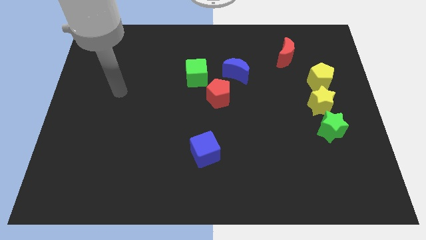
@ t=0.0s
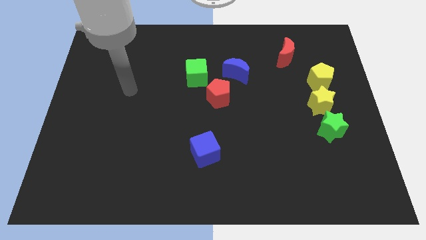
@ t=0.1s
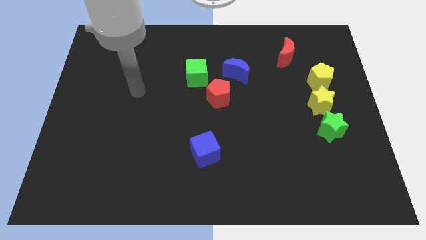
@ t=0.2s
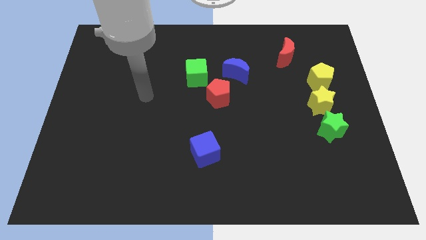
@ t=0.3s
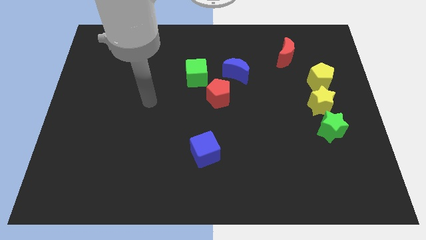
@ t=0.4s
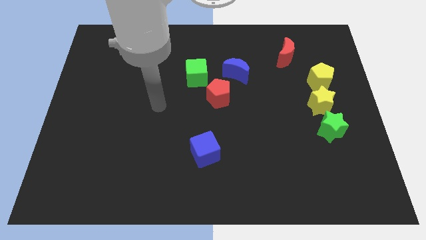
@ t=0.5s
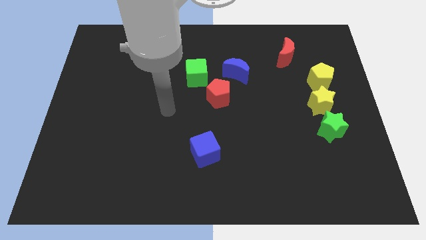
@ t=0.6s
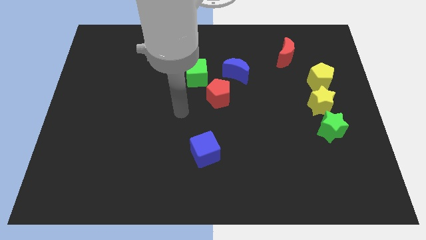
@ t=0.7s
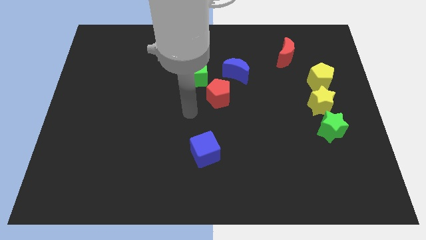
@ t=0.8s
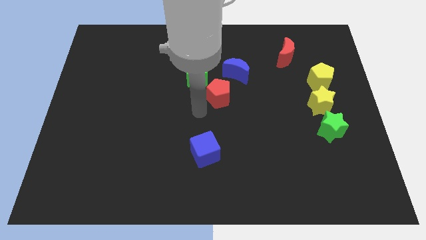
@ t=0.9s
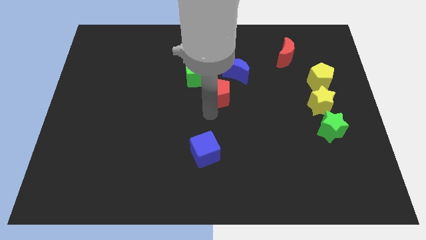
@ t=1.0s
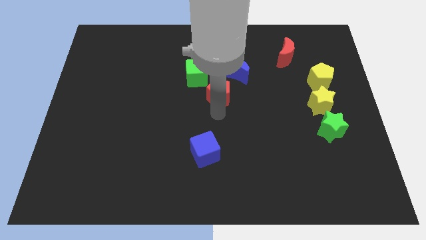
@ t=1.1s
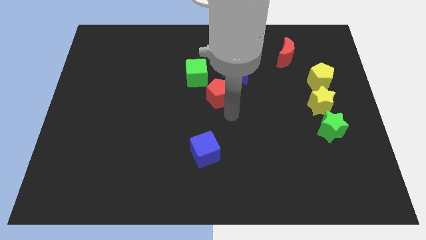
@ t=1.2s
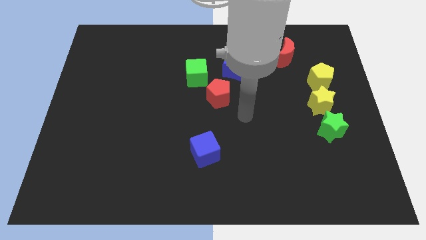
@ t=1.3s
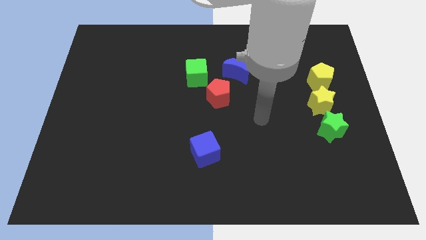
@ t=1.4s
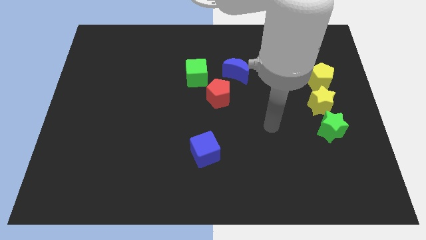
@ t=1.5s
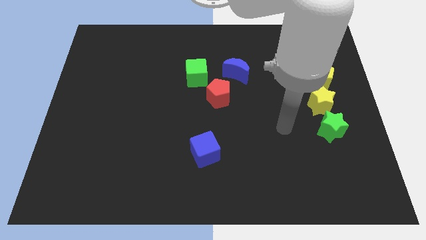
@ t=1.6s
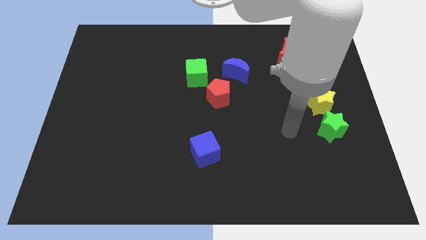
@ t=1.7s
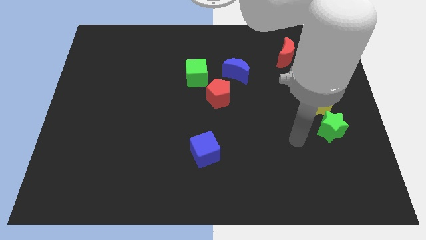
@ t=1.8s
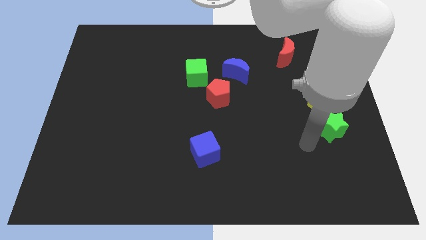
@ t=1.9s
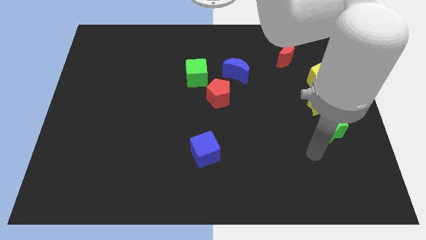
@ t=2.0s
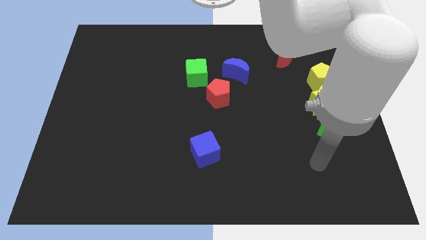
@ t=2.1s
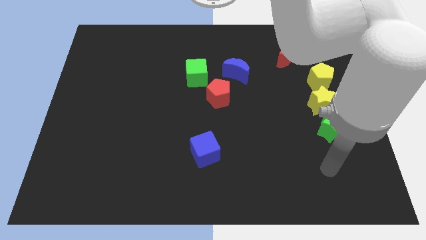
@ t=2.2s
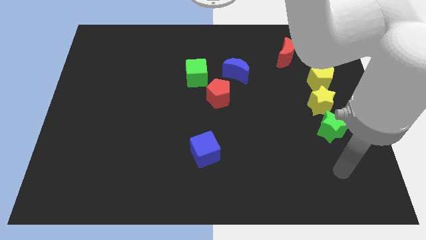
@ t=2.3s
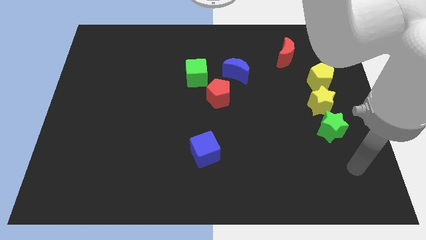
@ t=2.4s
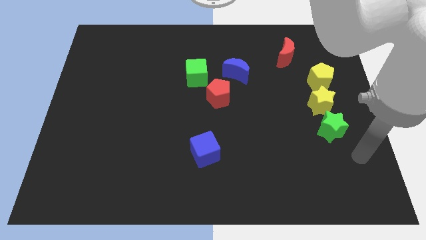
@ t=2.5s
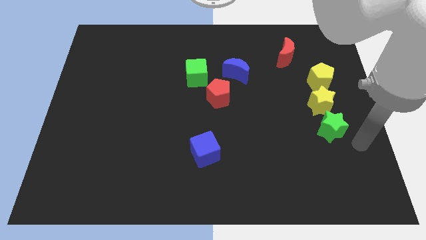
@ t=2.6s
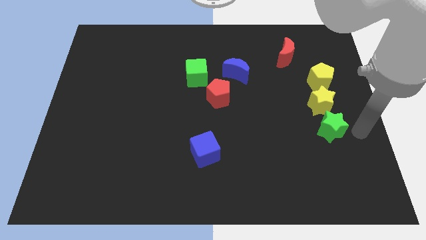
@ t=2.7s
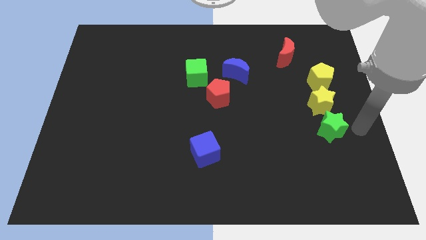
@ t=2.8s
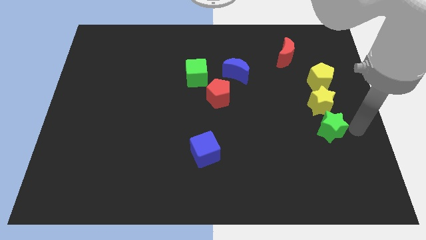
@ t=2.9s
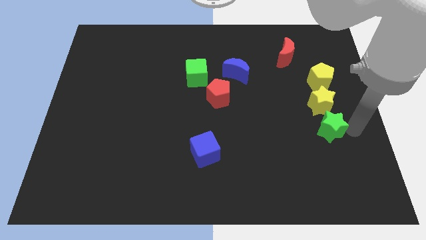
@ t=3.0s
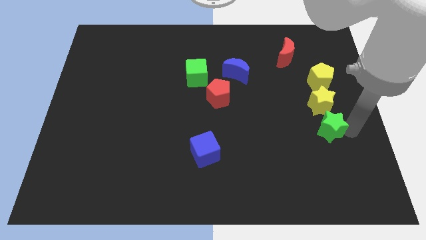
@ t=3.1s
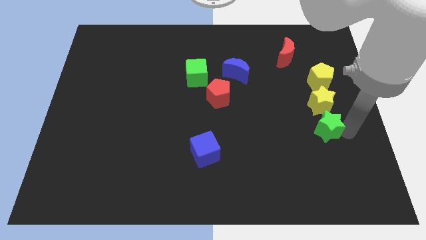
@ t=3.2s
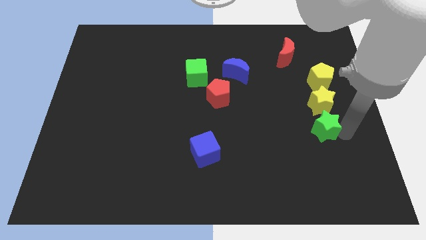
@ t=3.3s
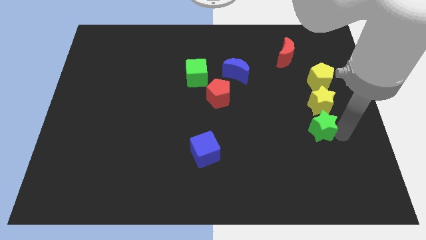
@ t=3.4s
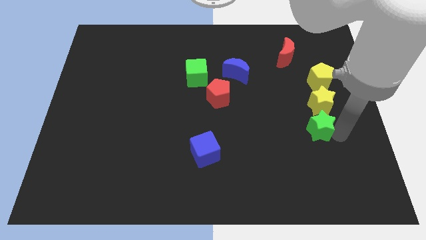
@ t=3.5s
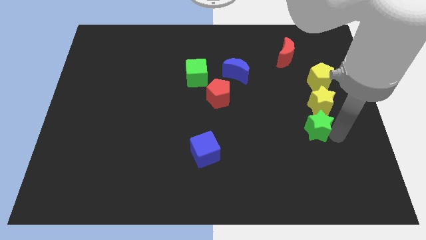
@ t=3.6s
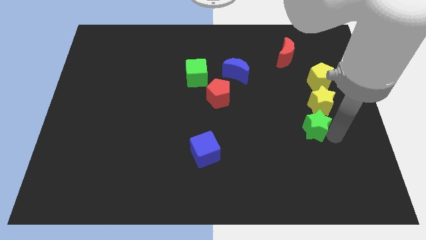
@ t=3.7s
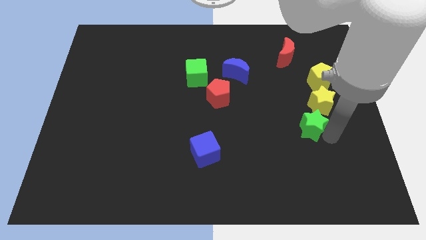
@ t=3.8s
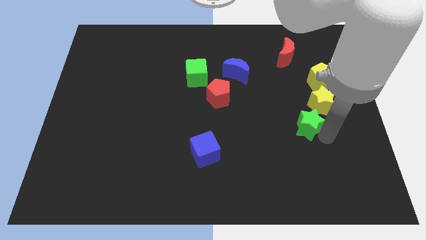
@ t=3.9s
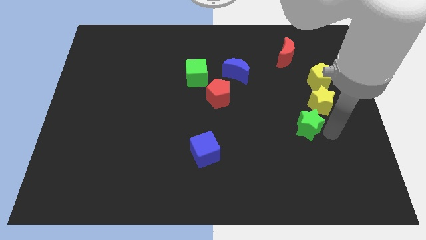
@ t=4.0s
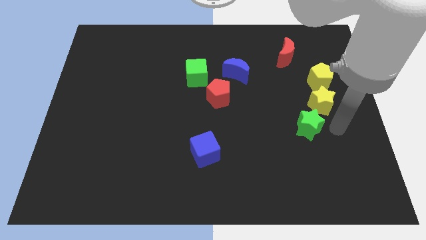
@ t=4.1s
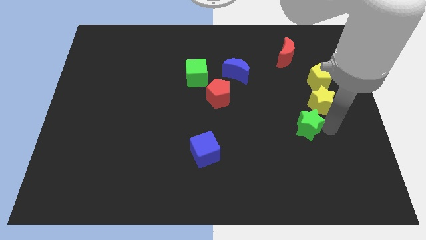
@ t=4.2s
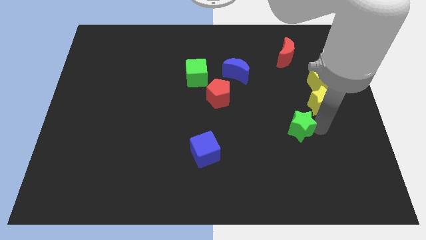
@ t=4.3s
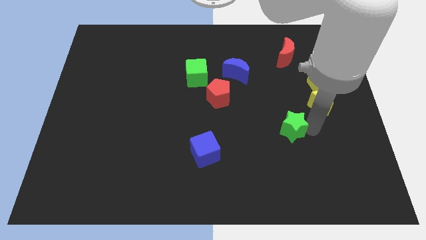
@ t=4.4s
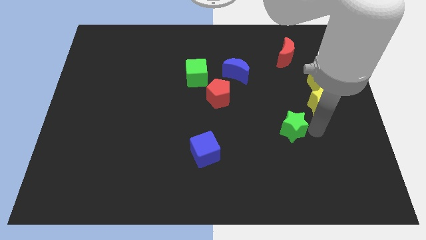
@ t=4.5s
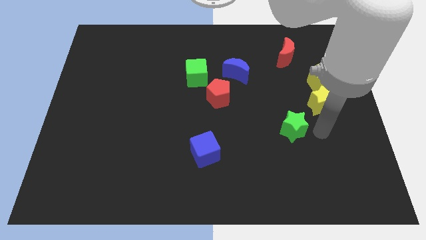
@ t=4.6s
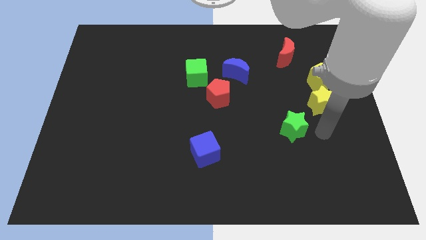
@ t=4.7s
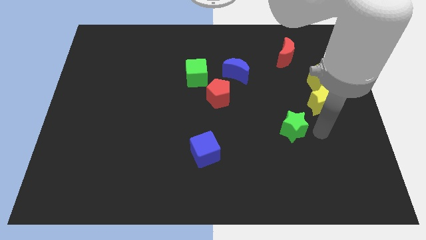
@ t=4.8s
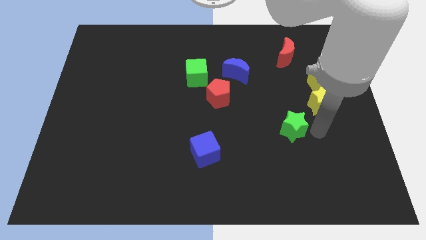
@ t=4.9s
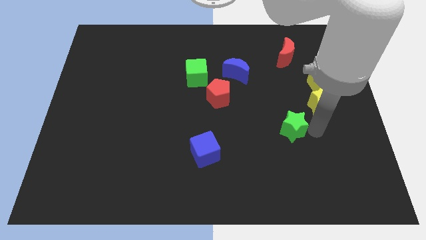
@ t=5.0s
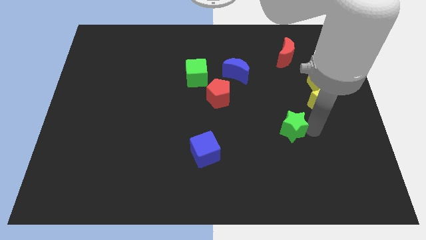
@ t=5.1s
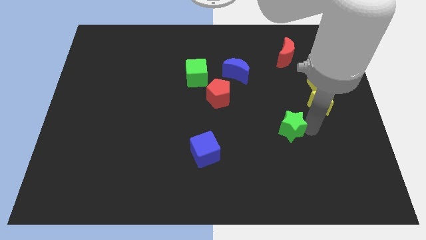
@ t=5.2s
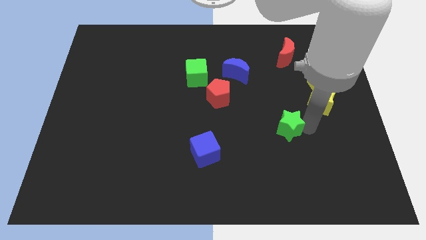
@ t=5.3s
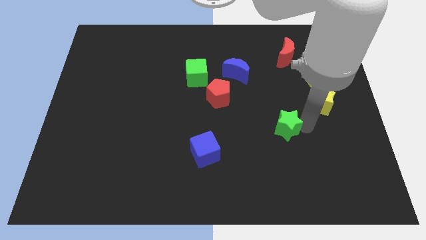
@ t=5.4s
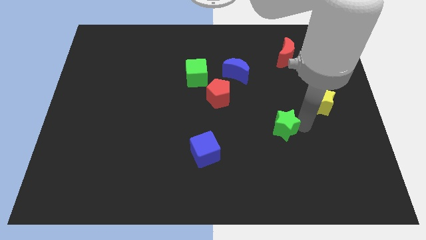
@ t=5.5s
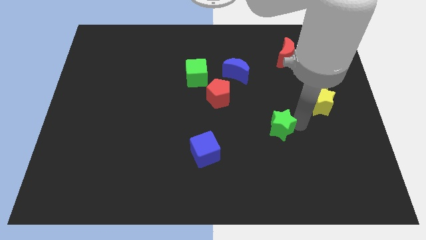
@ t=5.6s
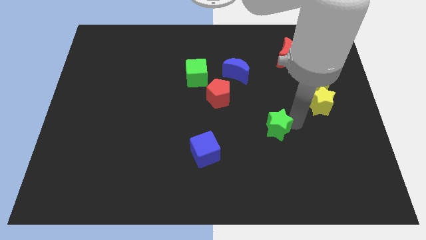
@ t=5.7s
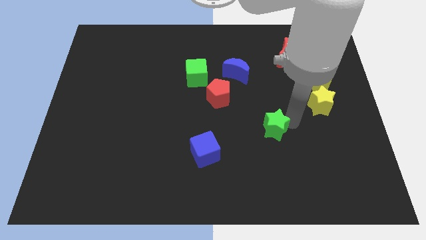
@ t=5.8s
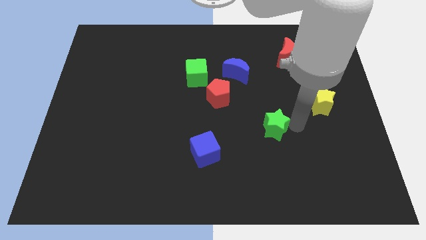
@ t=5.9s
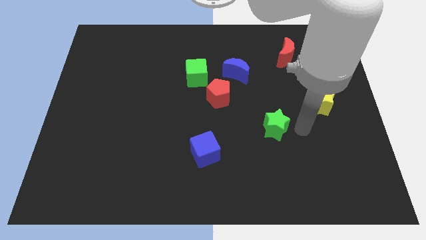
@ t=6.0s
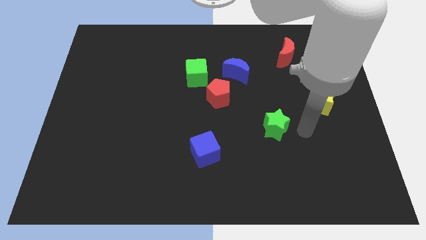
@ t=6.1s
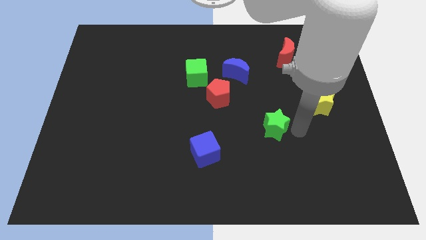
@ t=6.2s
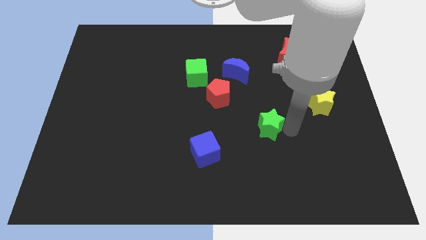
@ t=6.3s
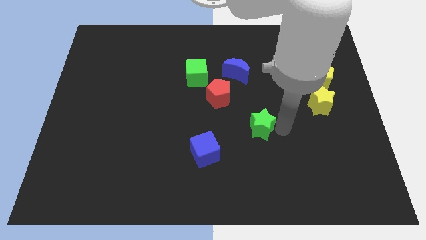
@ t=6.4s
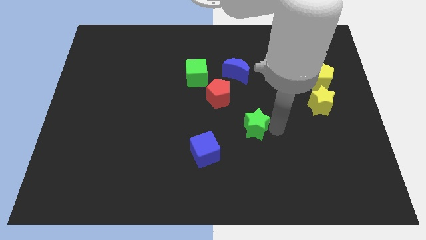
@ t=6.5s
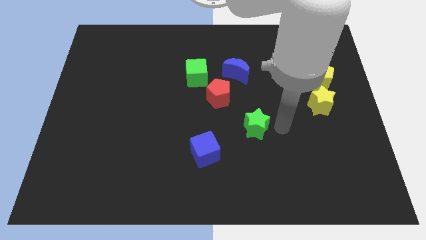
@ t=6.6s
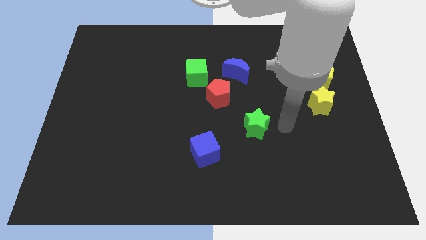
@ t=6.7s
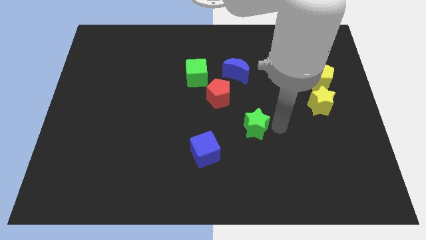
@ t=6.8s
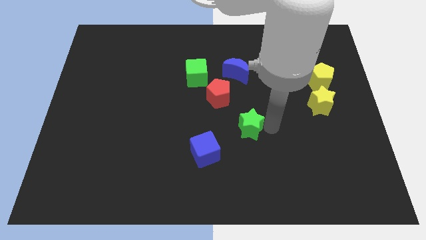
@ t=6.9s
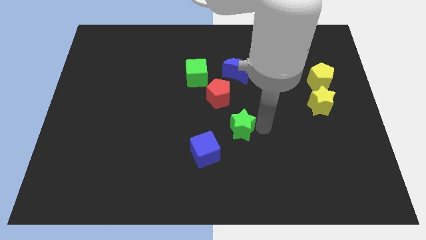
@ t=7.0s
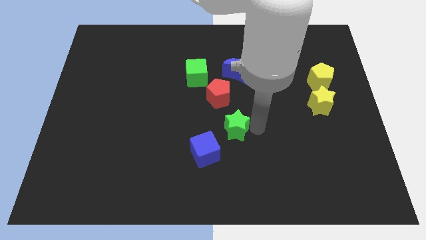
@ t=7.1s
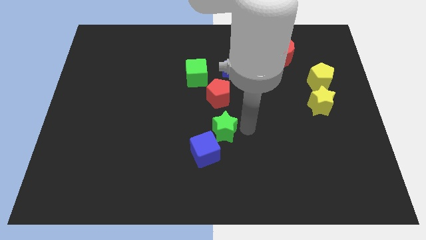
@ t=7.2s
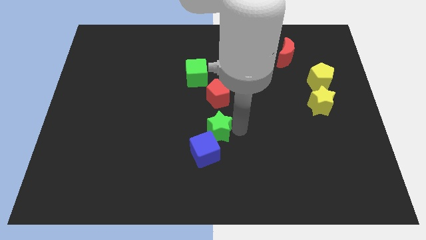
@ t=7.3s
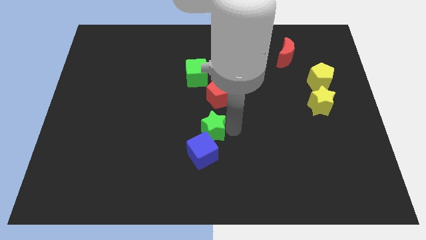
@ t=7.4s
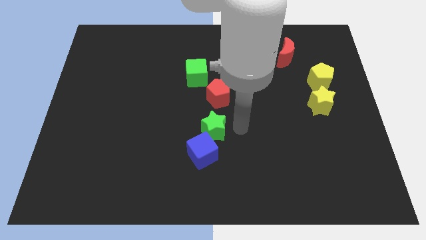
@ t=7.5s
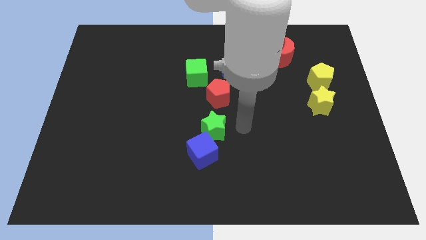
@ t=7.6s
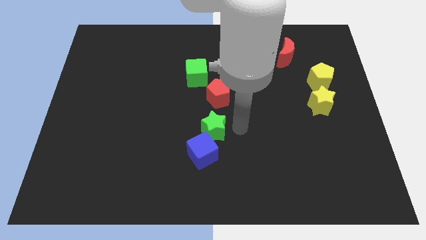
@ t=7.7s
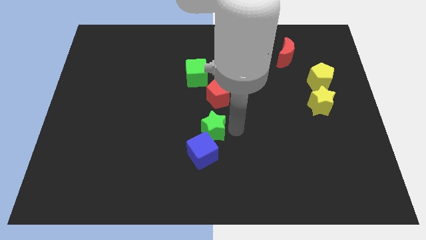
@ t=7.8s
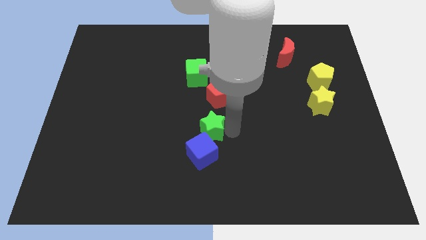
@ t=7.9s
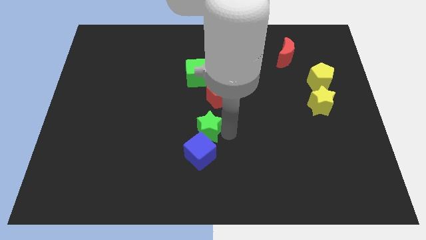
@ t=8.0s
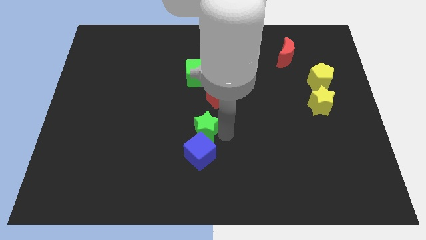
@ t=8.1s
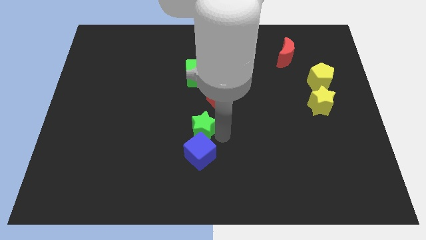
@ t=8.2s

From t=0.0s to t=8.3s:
push the green star to the top left side of the blue cube
